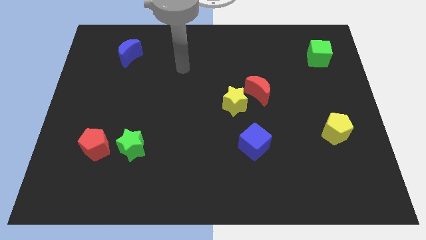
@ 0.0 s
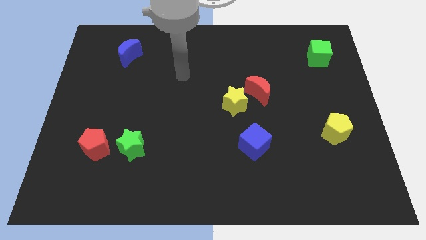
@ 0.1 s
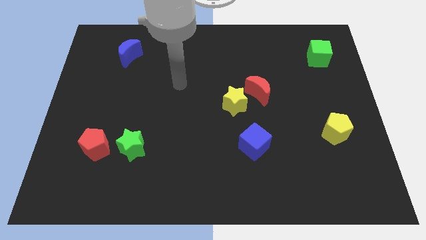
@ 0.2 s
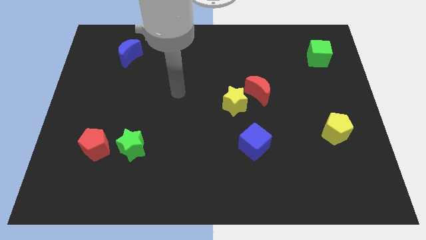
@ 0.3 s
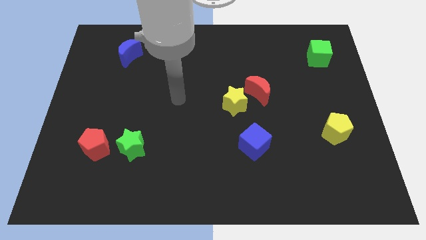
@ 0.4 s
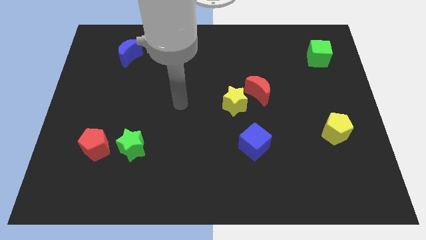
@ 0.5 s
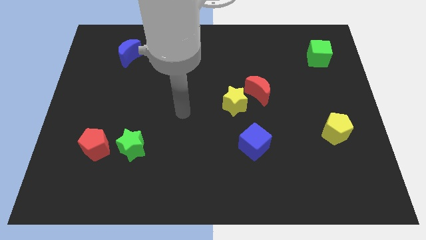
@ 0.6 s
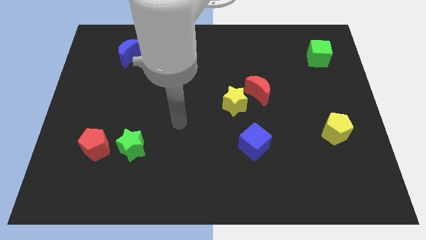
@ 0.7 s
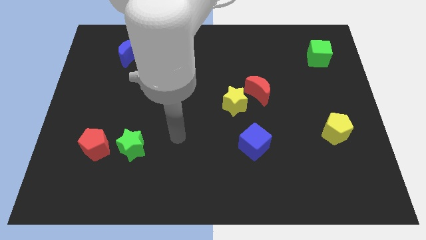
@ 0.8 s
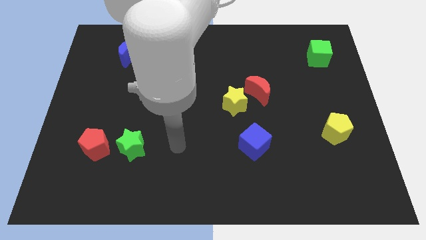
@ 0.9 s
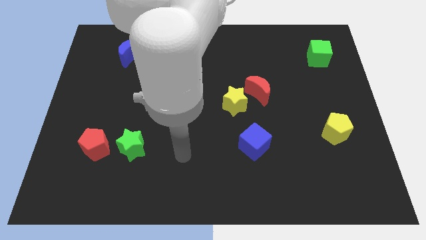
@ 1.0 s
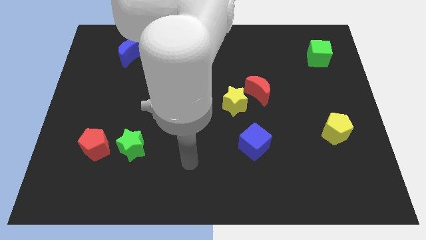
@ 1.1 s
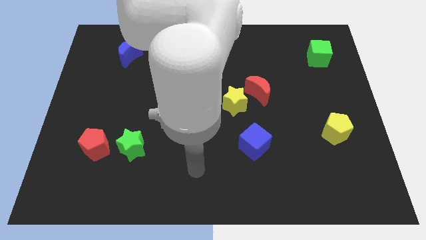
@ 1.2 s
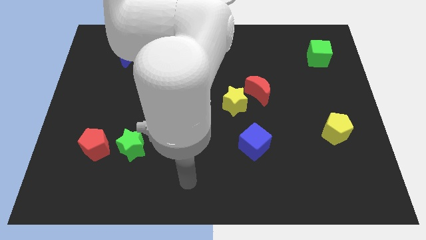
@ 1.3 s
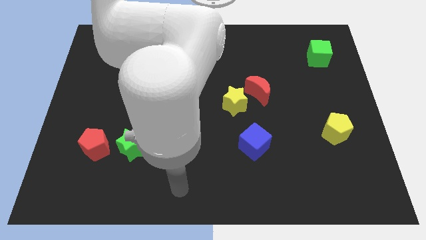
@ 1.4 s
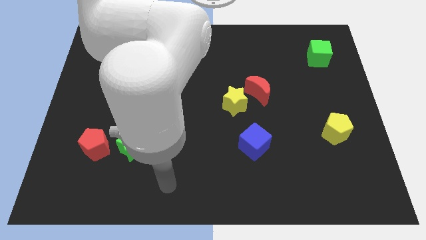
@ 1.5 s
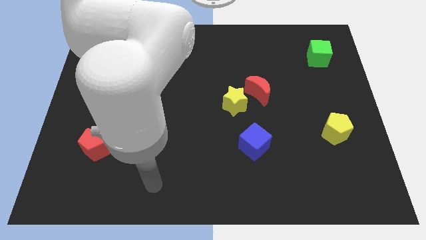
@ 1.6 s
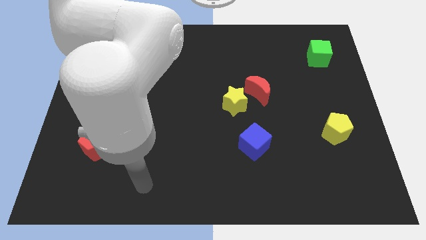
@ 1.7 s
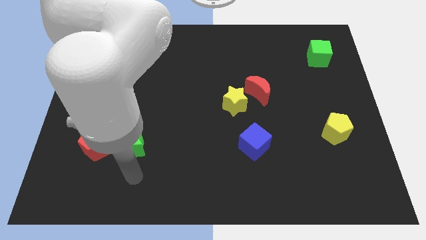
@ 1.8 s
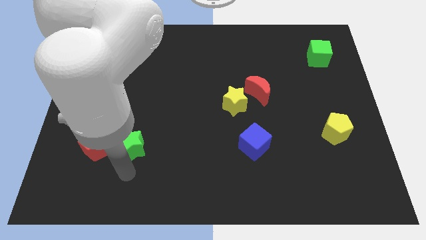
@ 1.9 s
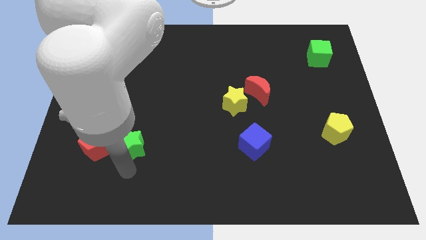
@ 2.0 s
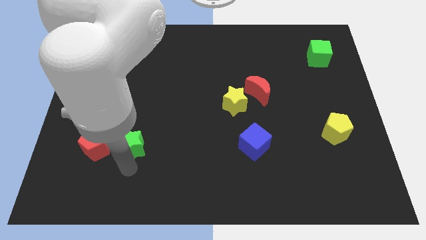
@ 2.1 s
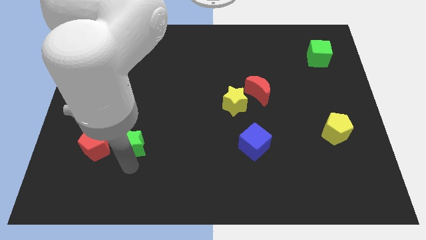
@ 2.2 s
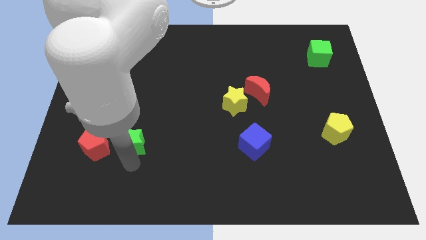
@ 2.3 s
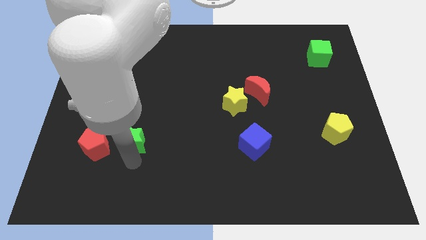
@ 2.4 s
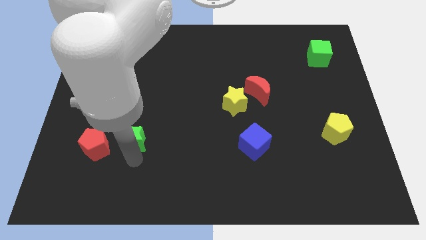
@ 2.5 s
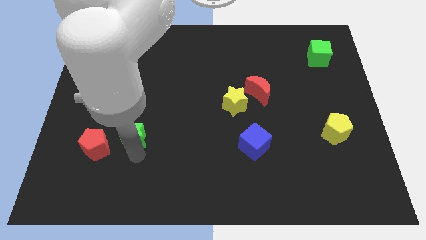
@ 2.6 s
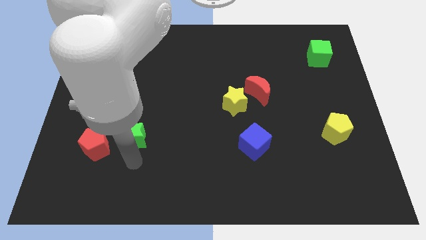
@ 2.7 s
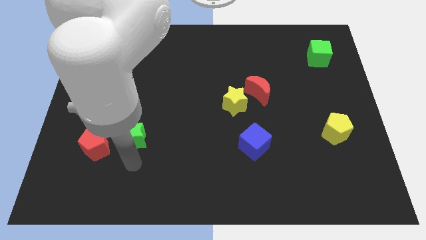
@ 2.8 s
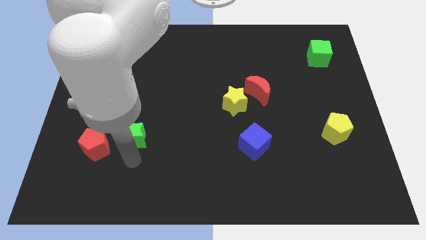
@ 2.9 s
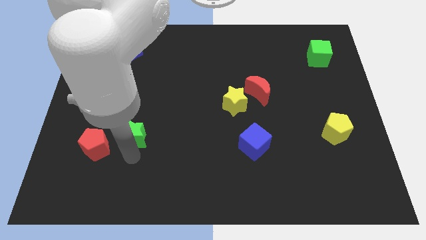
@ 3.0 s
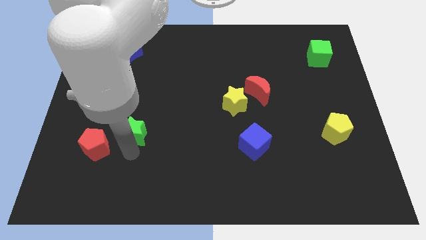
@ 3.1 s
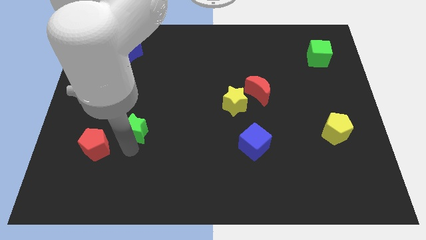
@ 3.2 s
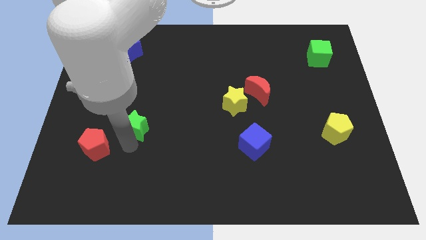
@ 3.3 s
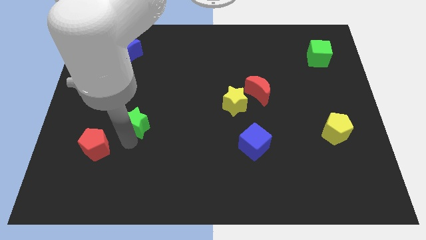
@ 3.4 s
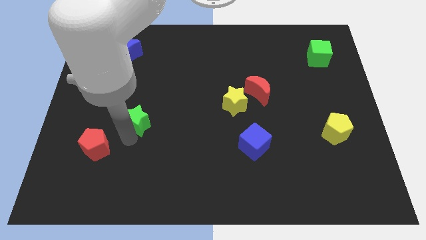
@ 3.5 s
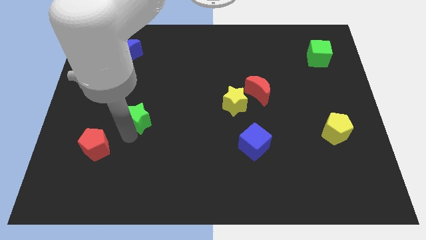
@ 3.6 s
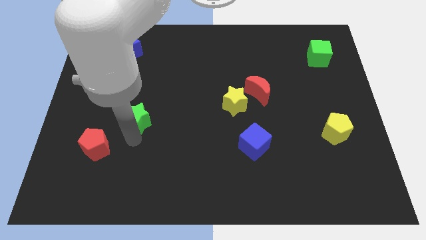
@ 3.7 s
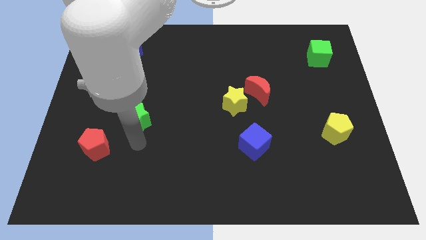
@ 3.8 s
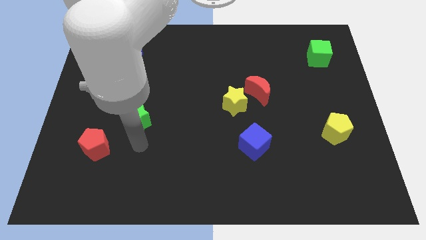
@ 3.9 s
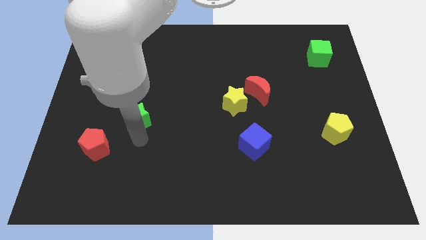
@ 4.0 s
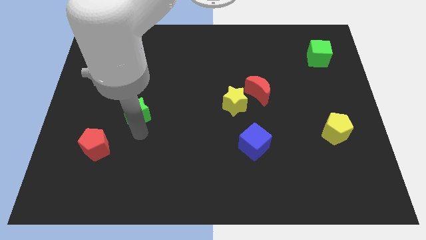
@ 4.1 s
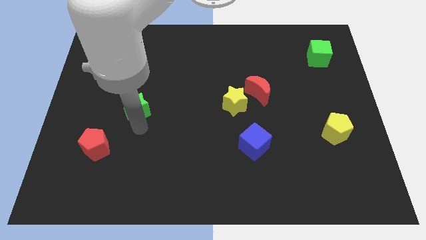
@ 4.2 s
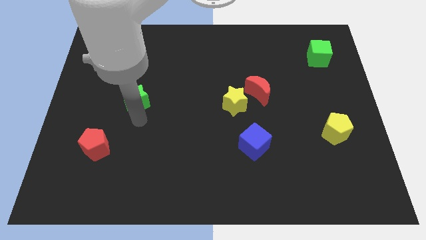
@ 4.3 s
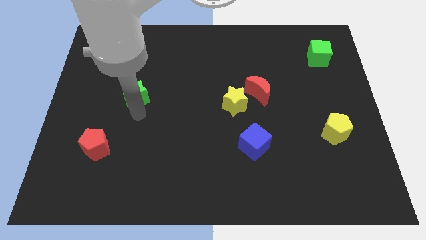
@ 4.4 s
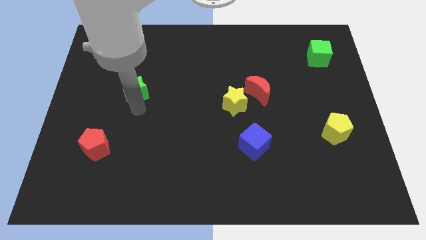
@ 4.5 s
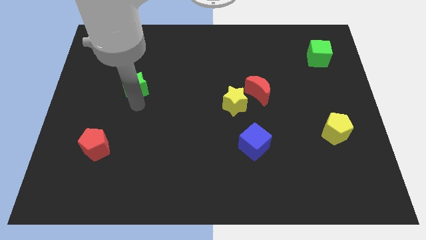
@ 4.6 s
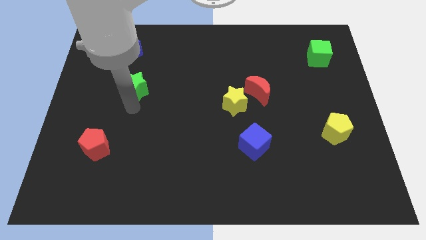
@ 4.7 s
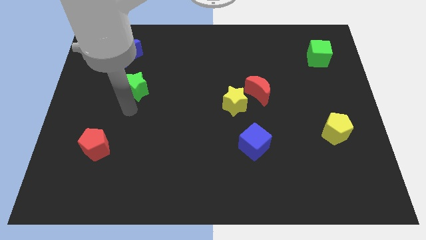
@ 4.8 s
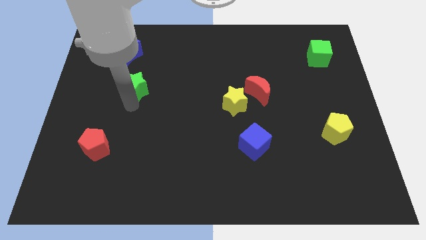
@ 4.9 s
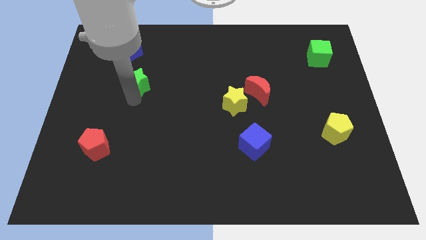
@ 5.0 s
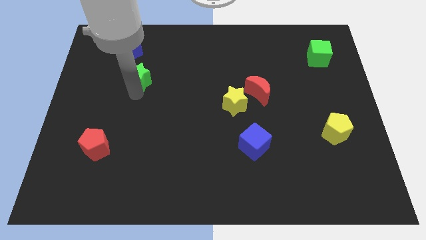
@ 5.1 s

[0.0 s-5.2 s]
move the green star to the bottom right side of the blue moon

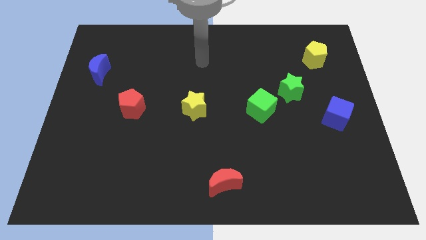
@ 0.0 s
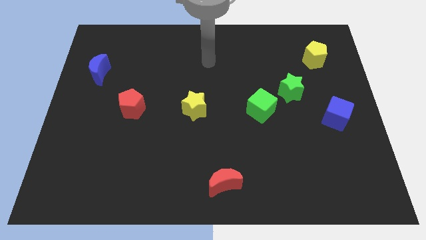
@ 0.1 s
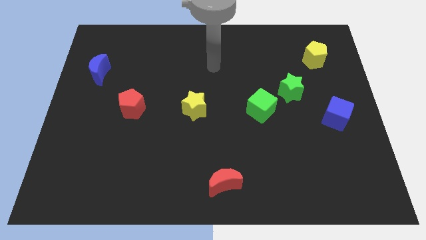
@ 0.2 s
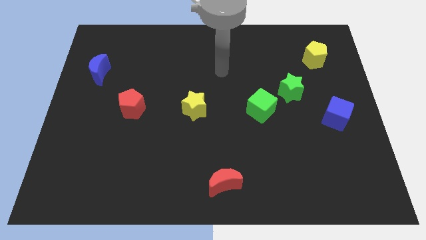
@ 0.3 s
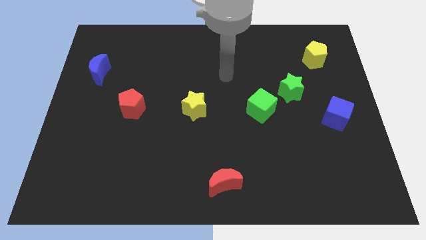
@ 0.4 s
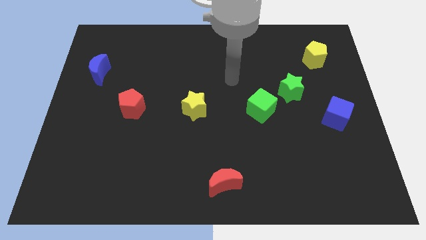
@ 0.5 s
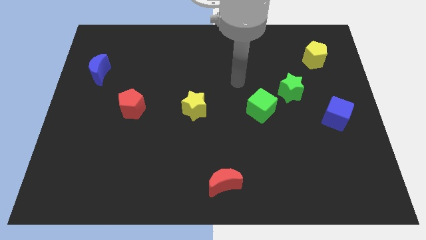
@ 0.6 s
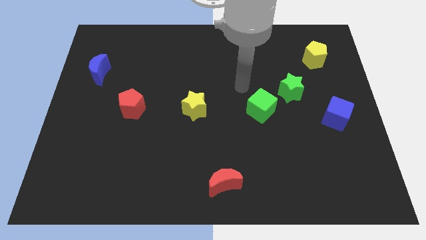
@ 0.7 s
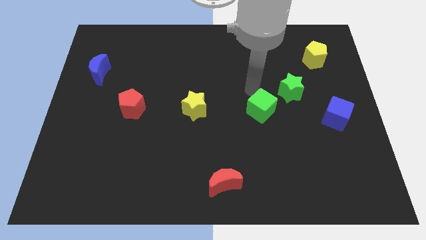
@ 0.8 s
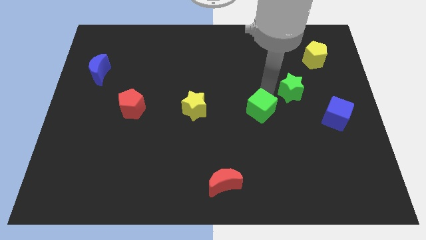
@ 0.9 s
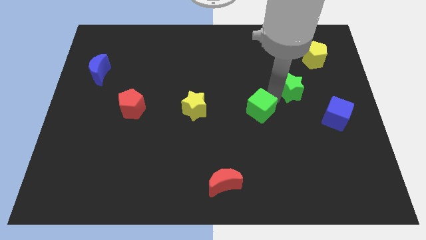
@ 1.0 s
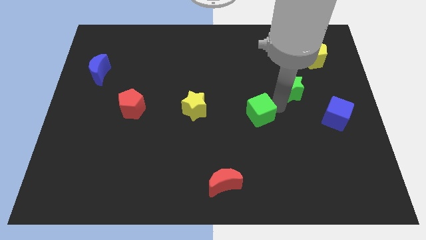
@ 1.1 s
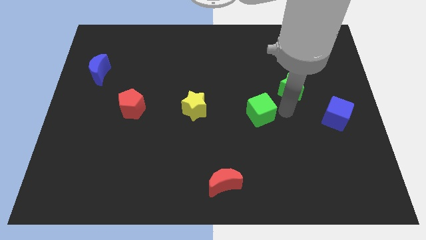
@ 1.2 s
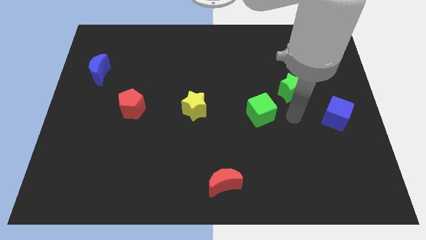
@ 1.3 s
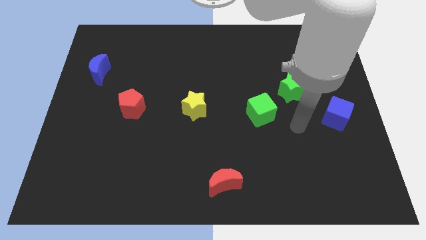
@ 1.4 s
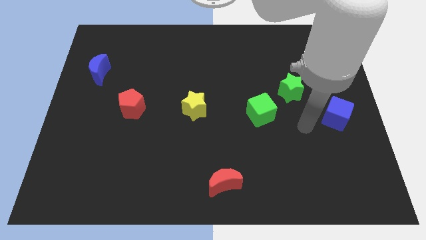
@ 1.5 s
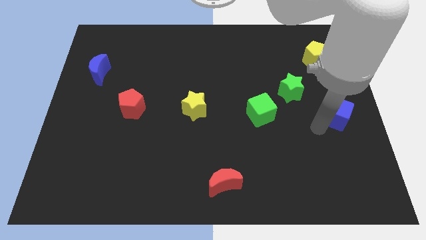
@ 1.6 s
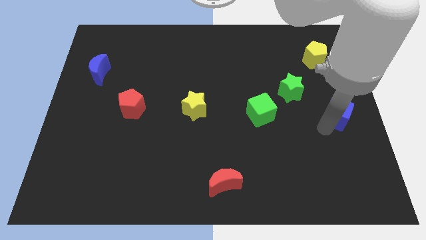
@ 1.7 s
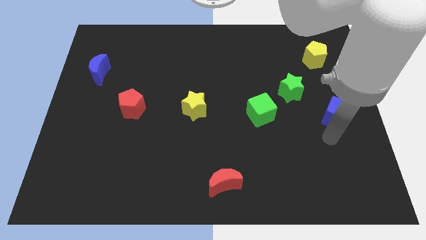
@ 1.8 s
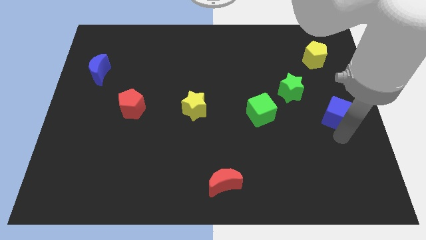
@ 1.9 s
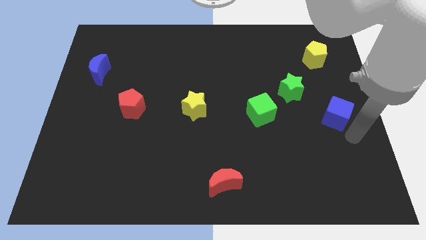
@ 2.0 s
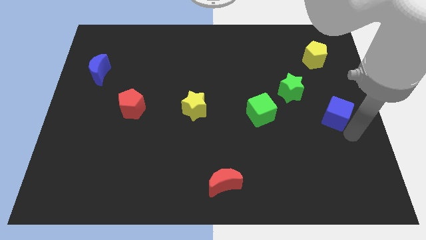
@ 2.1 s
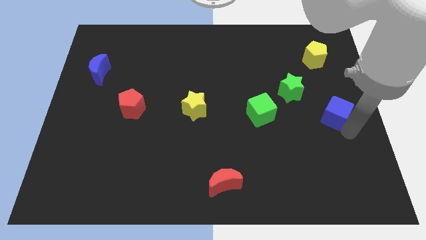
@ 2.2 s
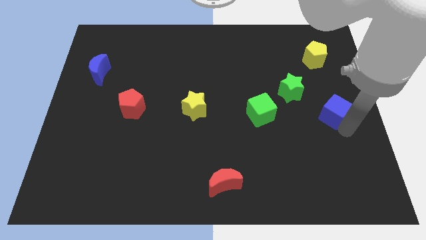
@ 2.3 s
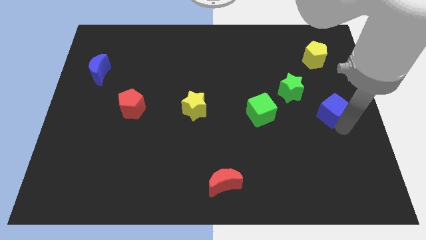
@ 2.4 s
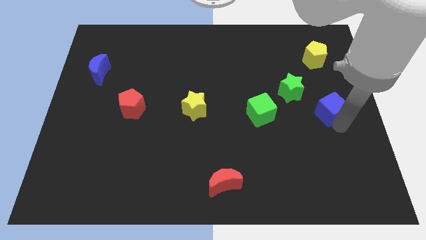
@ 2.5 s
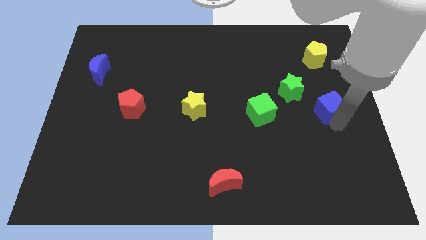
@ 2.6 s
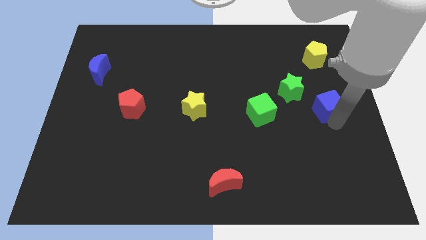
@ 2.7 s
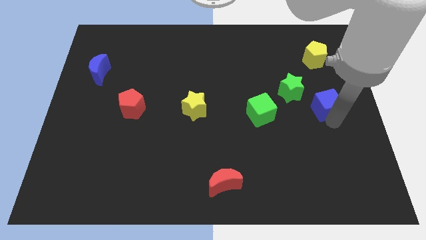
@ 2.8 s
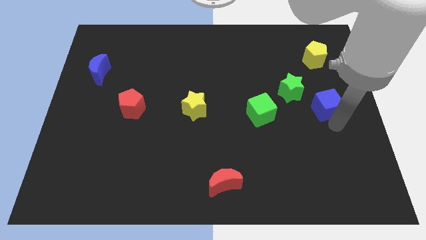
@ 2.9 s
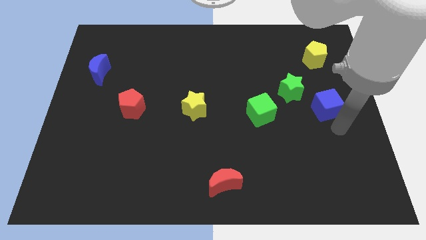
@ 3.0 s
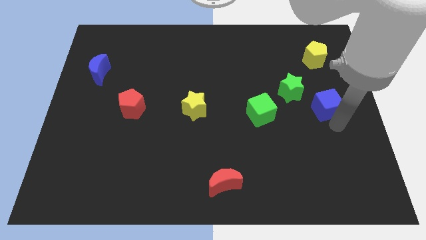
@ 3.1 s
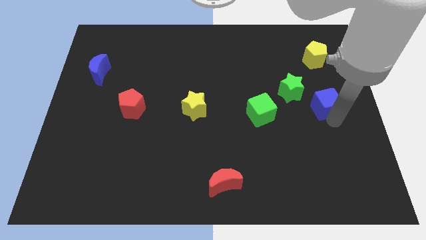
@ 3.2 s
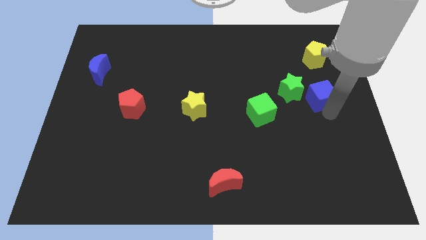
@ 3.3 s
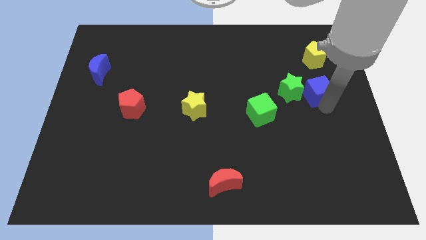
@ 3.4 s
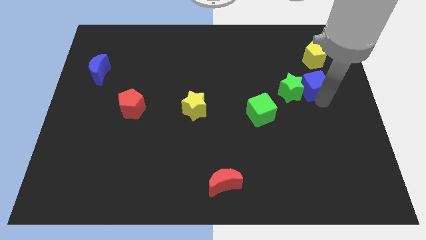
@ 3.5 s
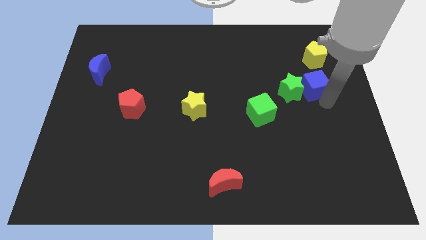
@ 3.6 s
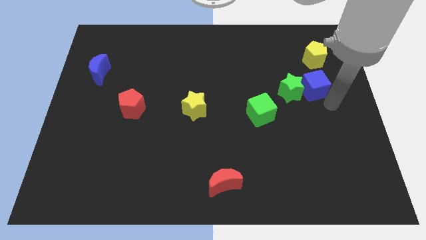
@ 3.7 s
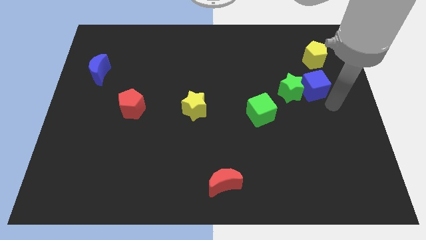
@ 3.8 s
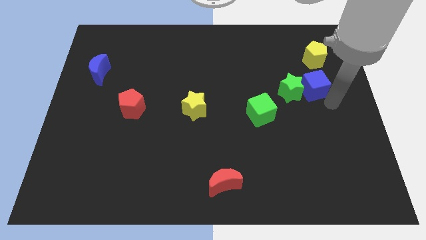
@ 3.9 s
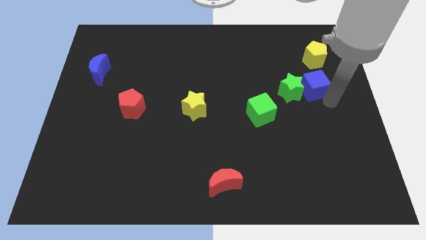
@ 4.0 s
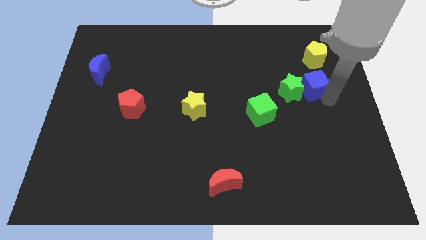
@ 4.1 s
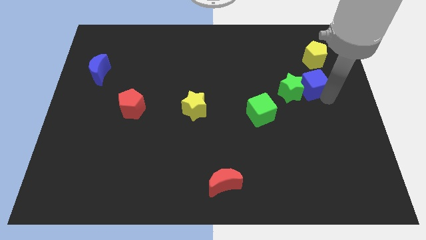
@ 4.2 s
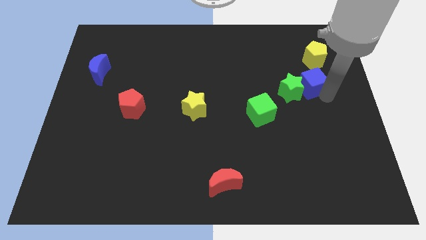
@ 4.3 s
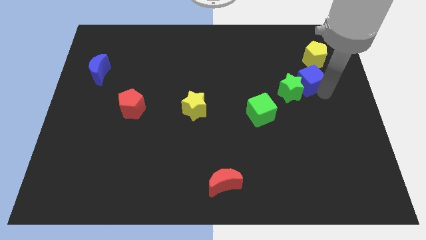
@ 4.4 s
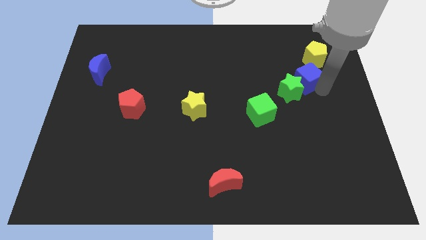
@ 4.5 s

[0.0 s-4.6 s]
move the blue cube above the green star
